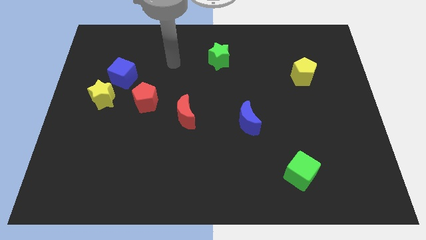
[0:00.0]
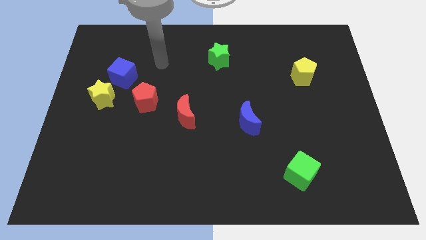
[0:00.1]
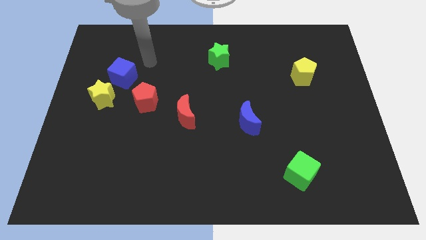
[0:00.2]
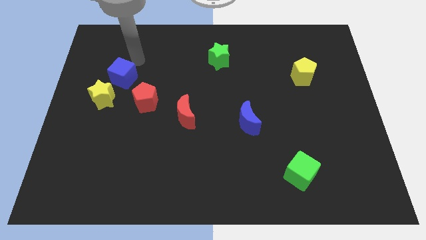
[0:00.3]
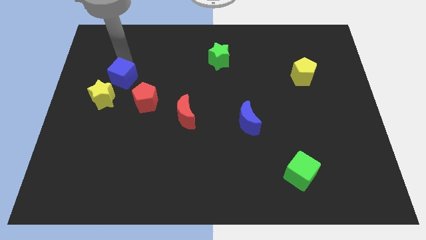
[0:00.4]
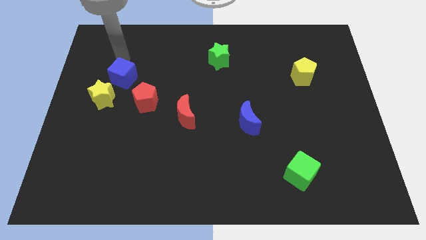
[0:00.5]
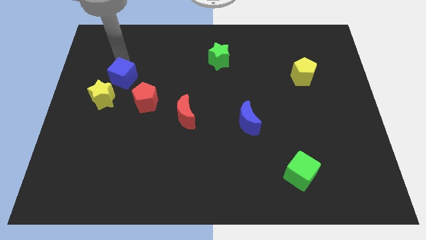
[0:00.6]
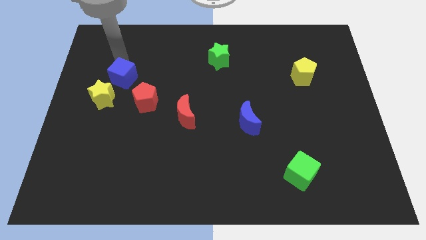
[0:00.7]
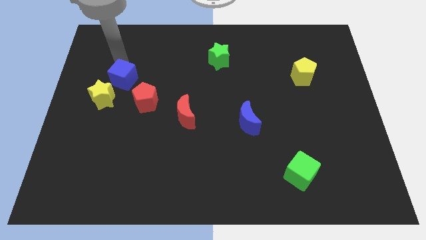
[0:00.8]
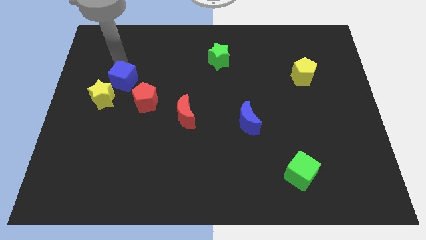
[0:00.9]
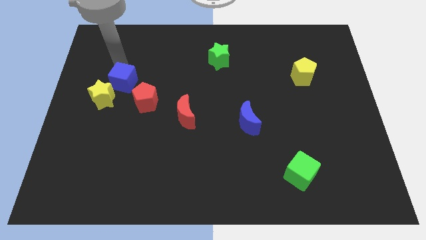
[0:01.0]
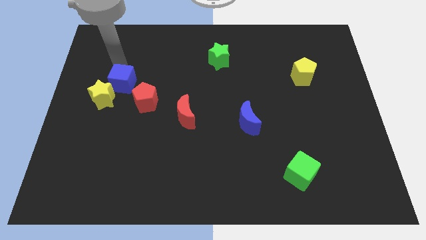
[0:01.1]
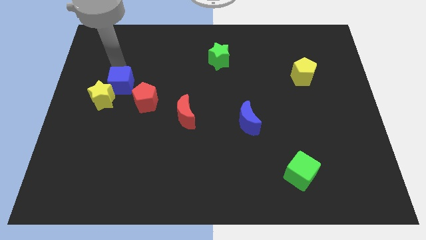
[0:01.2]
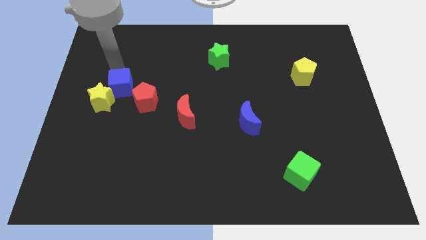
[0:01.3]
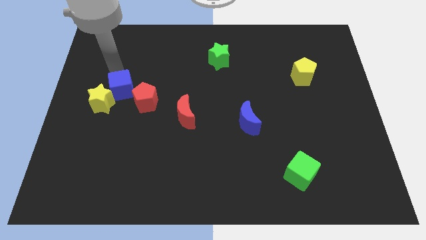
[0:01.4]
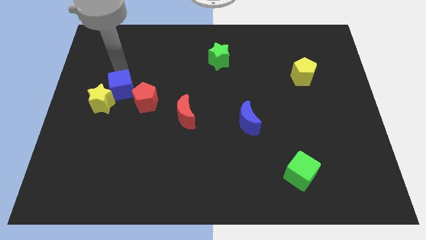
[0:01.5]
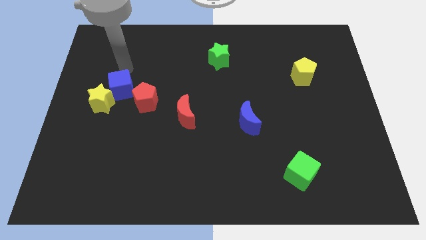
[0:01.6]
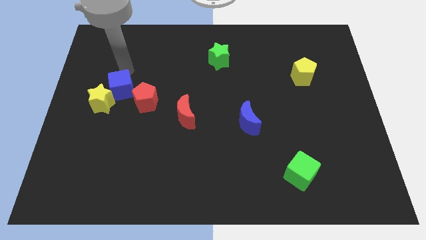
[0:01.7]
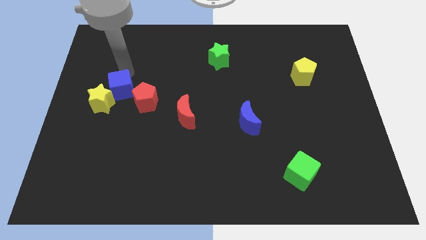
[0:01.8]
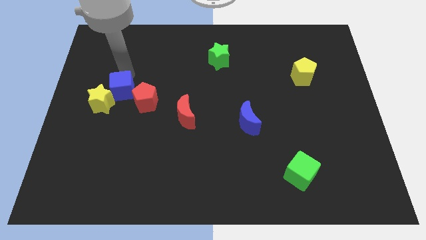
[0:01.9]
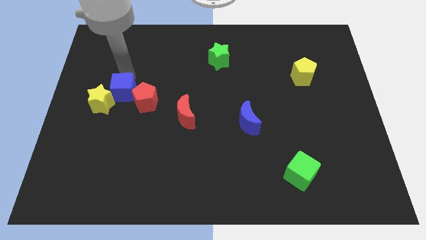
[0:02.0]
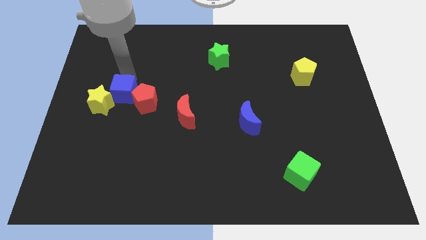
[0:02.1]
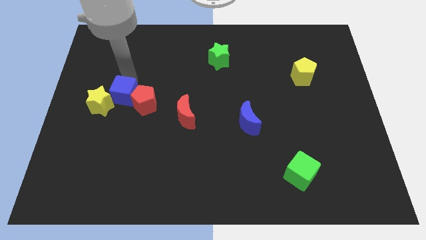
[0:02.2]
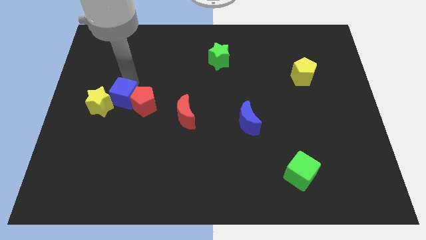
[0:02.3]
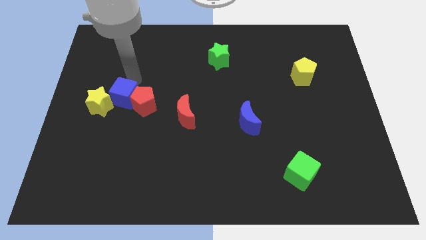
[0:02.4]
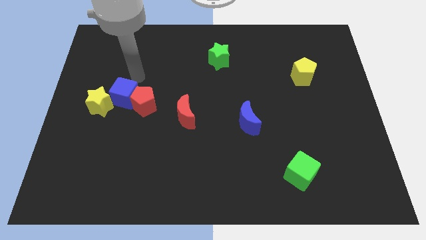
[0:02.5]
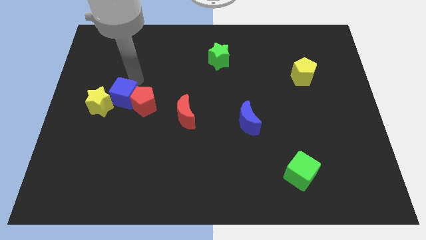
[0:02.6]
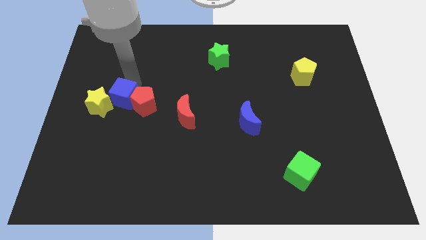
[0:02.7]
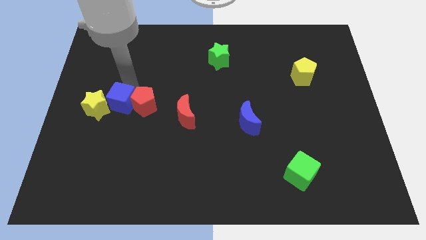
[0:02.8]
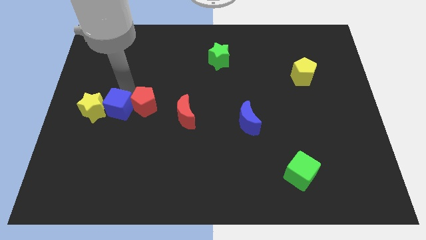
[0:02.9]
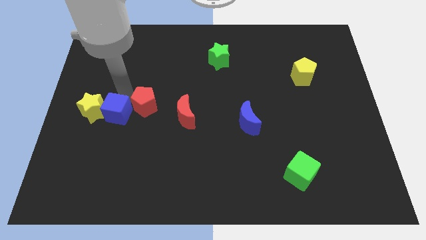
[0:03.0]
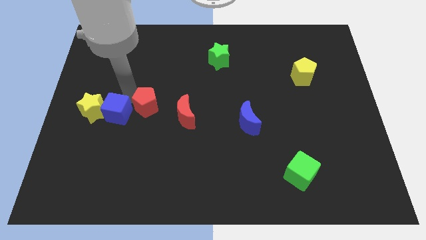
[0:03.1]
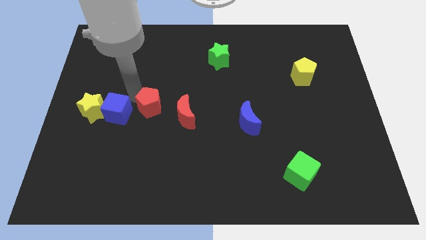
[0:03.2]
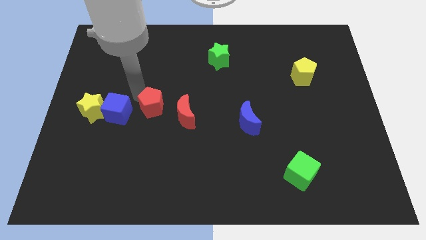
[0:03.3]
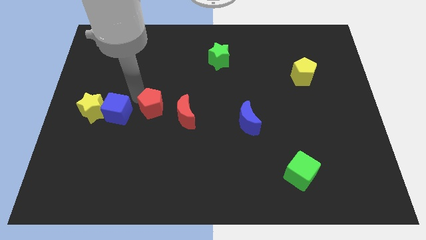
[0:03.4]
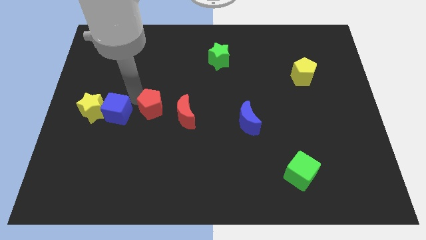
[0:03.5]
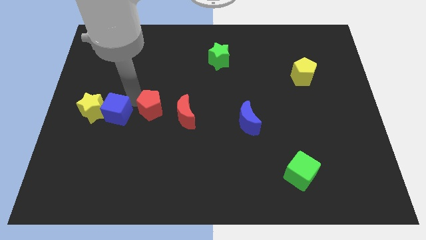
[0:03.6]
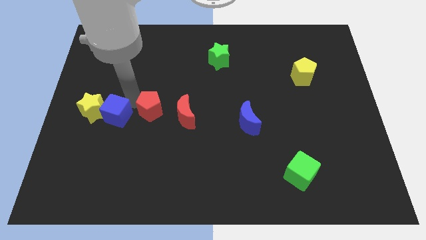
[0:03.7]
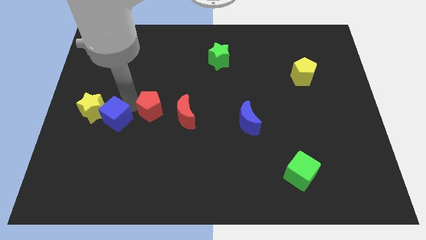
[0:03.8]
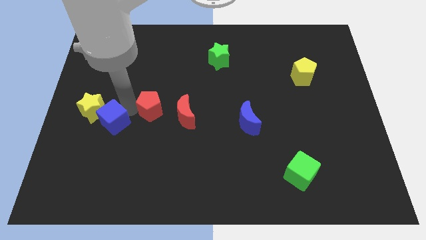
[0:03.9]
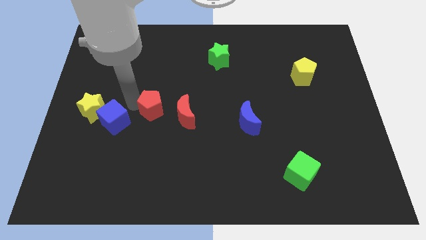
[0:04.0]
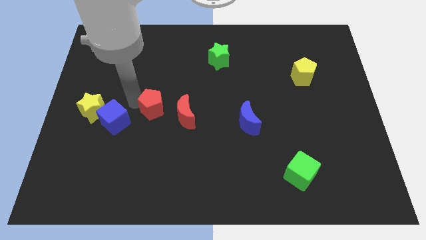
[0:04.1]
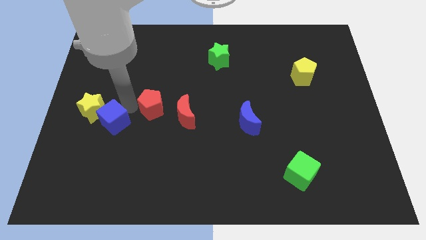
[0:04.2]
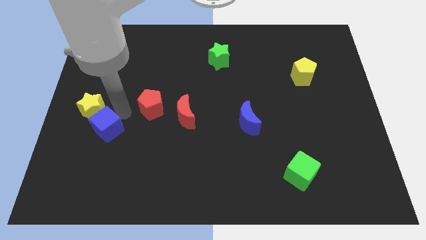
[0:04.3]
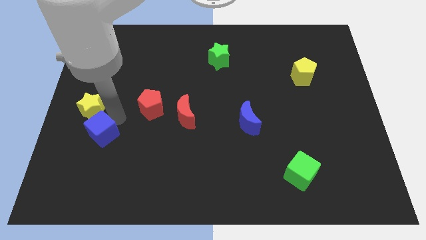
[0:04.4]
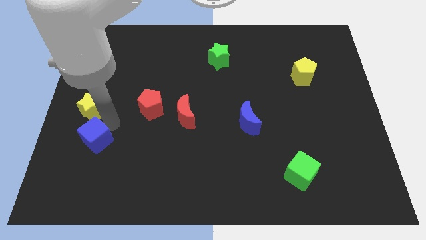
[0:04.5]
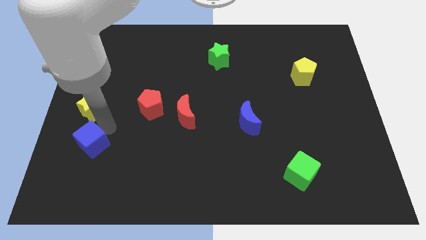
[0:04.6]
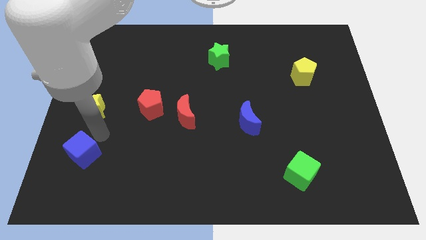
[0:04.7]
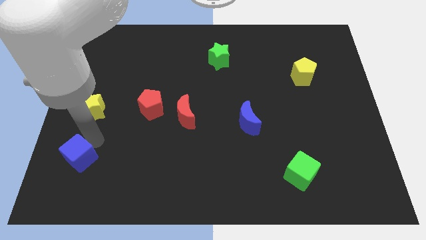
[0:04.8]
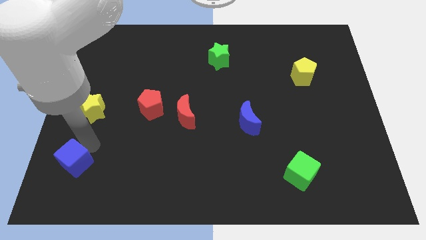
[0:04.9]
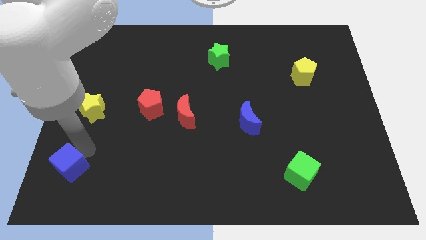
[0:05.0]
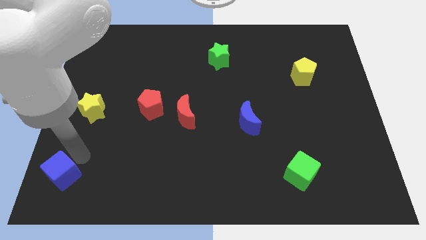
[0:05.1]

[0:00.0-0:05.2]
put the blue cube to the lower left corner
